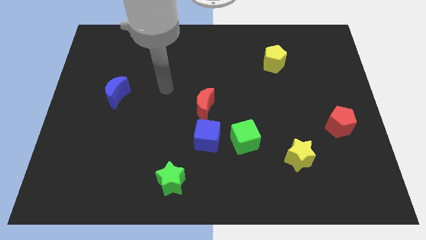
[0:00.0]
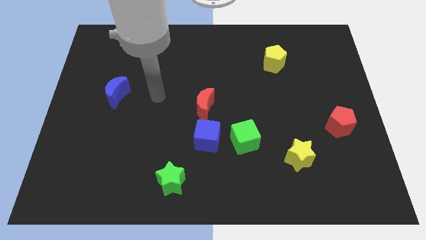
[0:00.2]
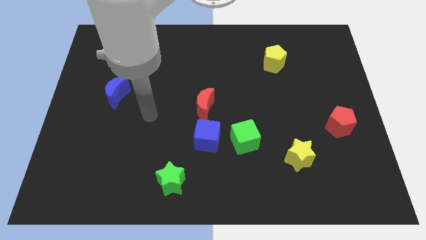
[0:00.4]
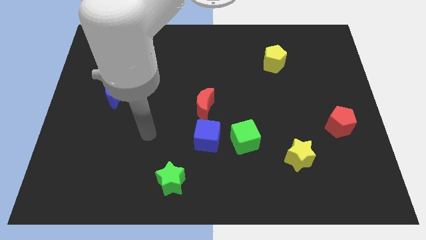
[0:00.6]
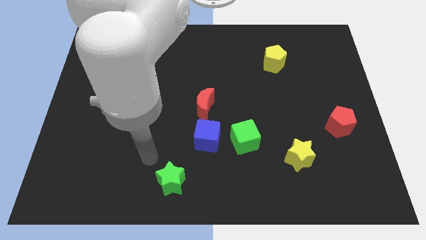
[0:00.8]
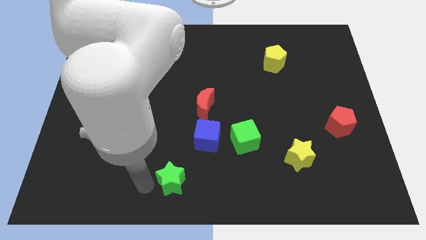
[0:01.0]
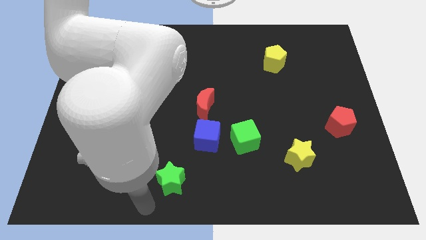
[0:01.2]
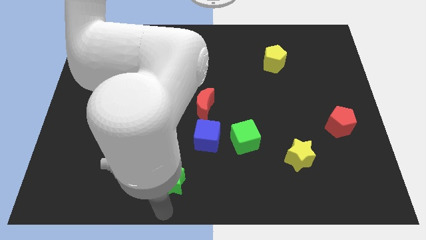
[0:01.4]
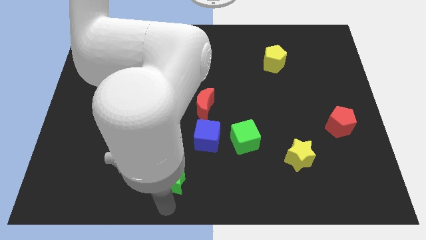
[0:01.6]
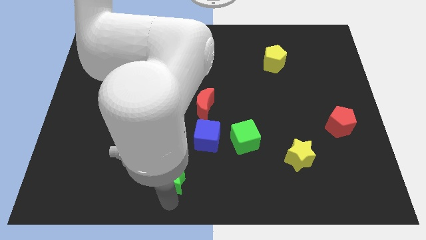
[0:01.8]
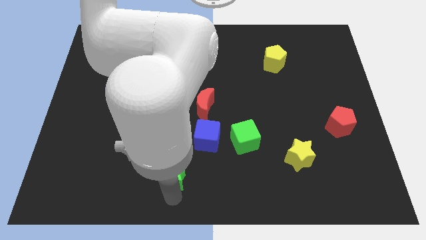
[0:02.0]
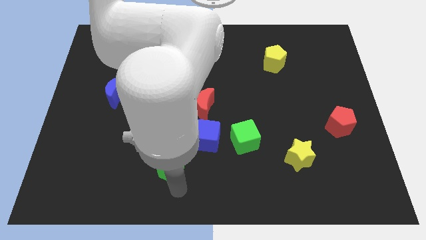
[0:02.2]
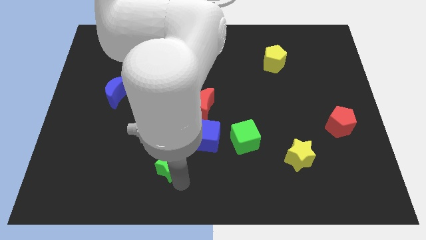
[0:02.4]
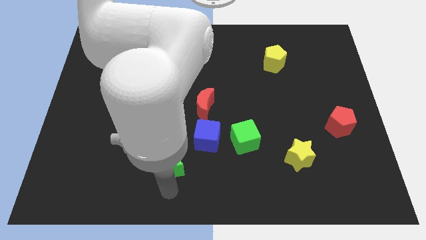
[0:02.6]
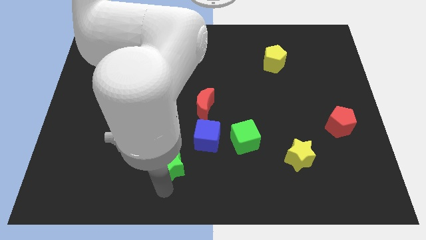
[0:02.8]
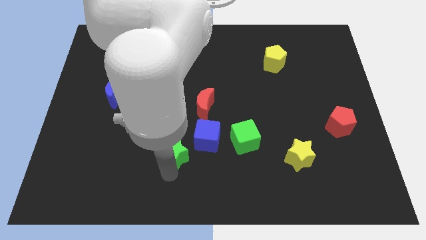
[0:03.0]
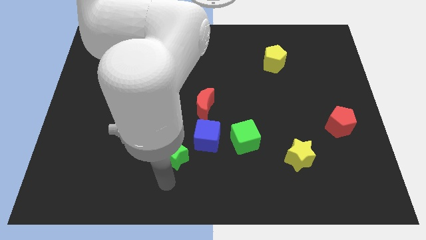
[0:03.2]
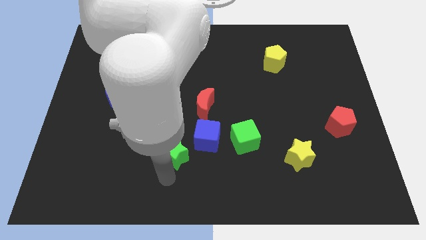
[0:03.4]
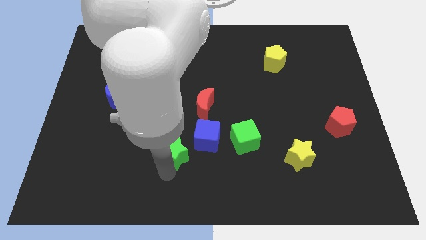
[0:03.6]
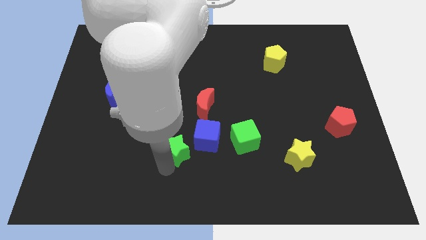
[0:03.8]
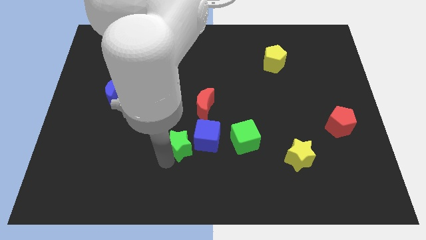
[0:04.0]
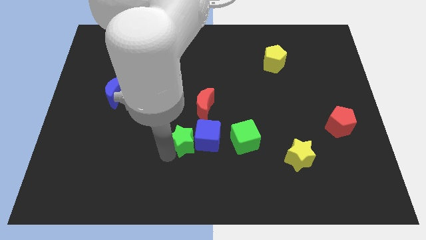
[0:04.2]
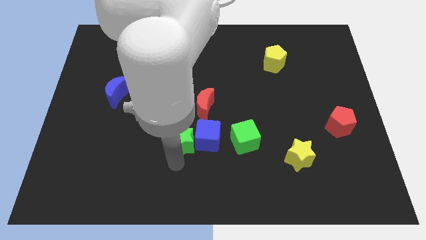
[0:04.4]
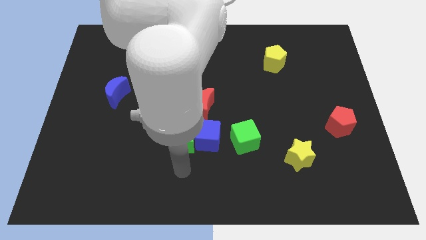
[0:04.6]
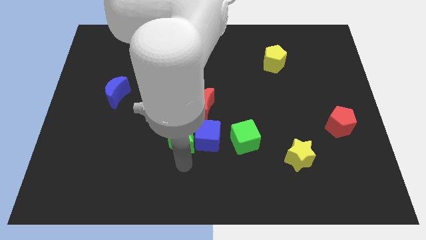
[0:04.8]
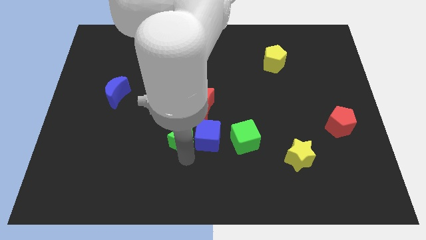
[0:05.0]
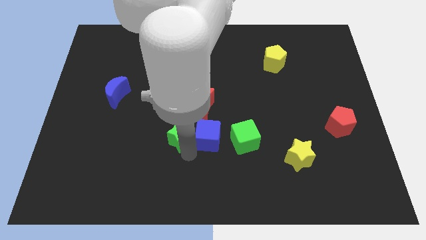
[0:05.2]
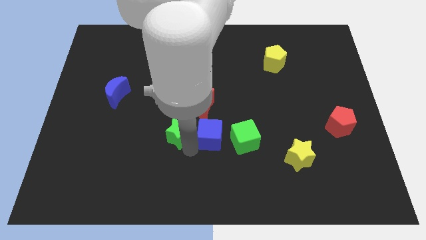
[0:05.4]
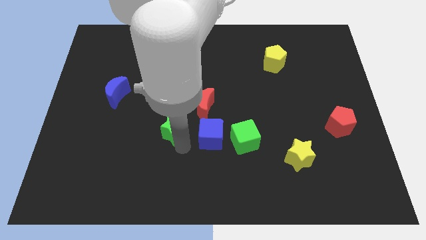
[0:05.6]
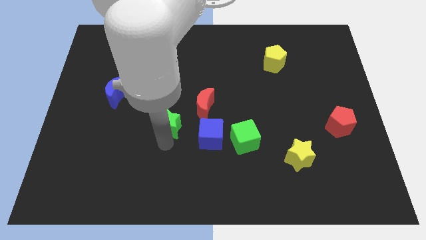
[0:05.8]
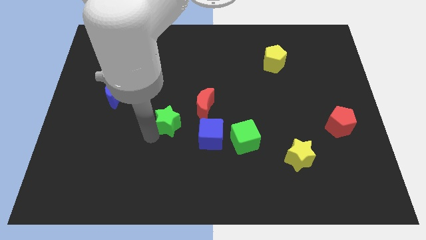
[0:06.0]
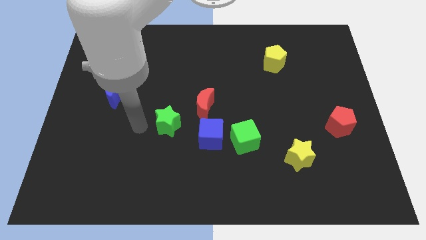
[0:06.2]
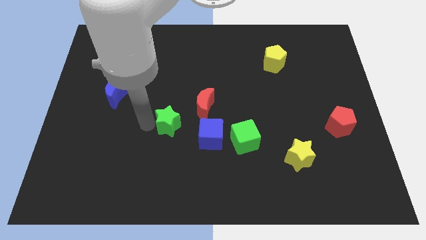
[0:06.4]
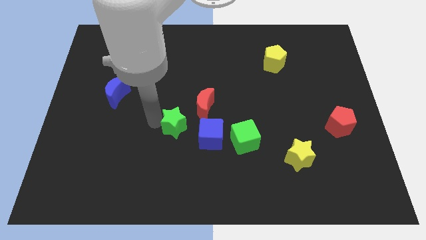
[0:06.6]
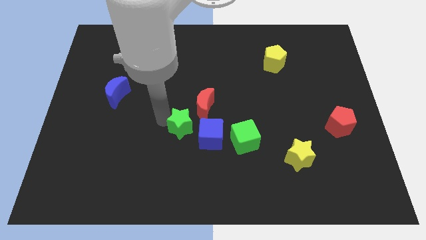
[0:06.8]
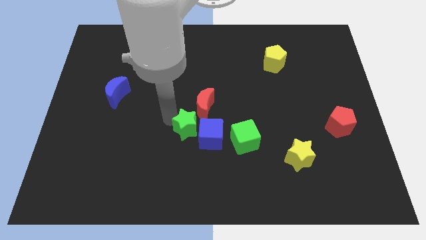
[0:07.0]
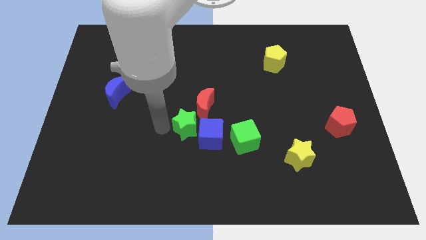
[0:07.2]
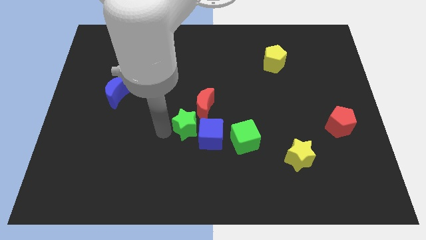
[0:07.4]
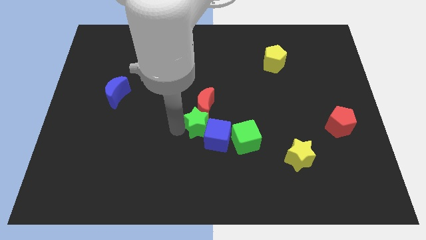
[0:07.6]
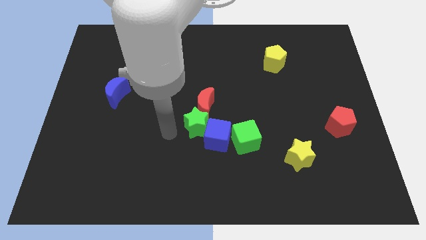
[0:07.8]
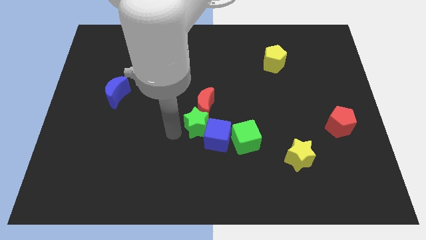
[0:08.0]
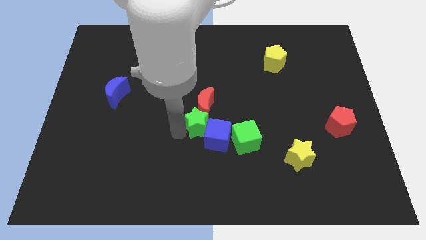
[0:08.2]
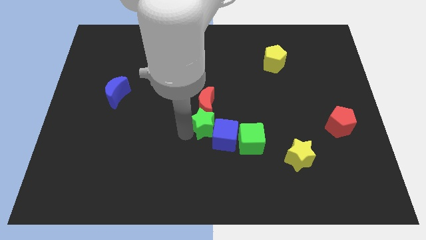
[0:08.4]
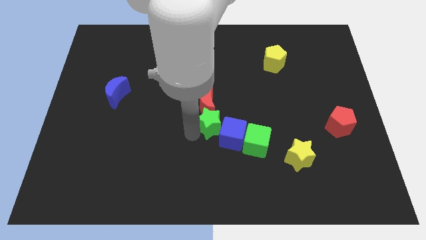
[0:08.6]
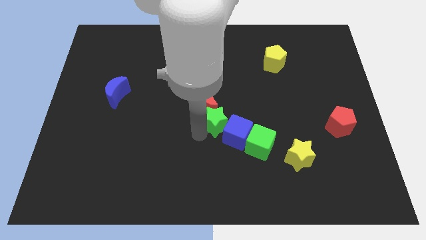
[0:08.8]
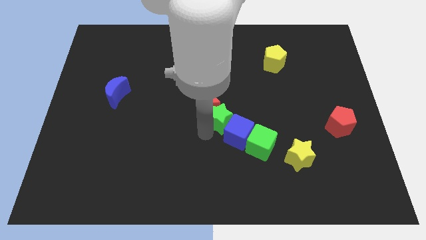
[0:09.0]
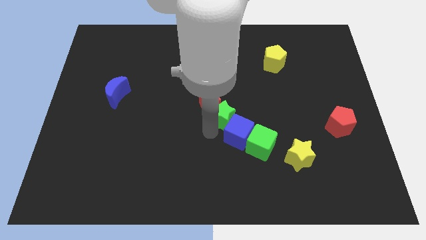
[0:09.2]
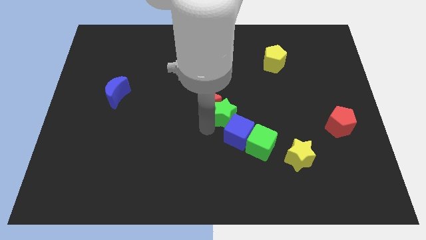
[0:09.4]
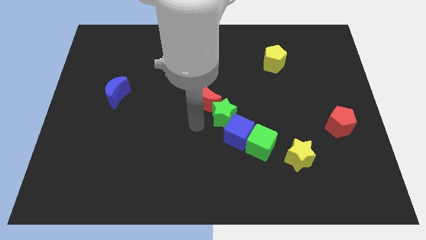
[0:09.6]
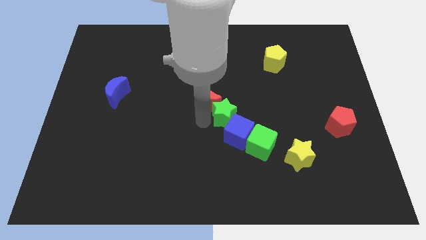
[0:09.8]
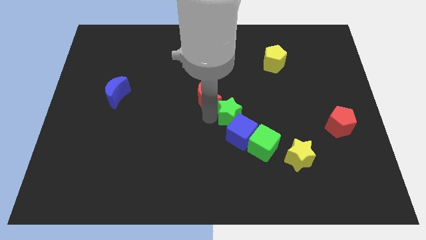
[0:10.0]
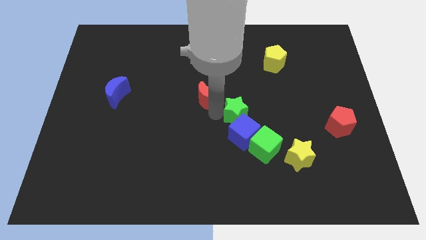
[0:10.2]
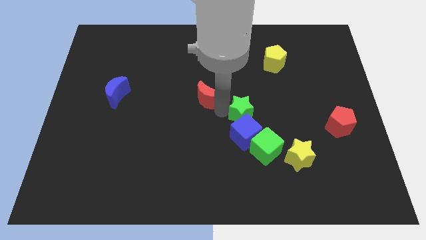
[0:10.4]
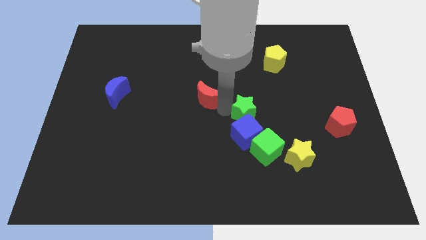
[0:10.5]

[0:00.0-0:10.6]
put the green star to the top side of the green cube

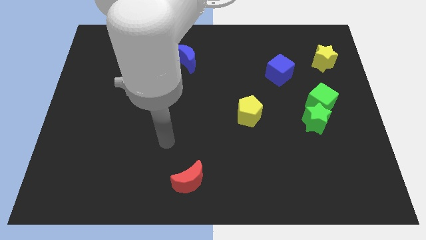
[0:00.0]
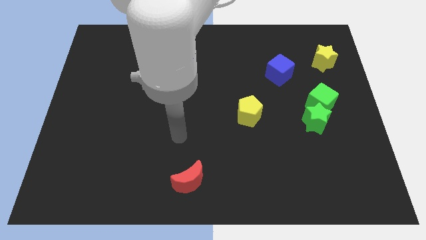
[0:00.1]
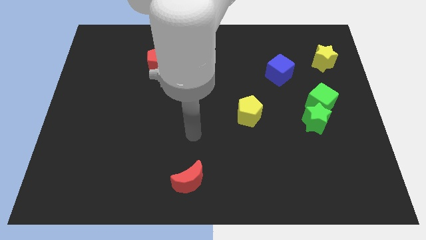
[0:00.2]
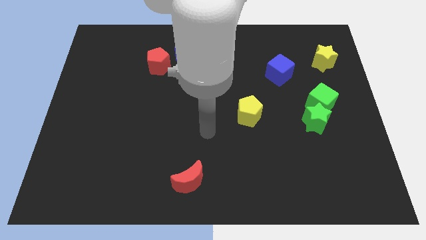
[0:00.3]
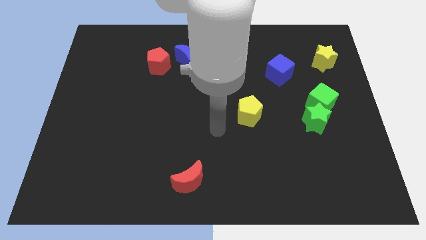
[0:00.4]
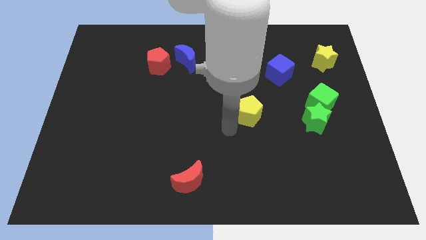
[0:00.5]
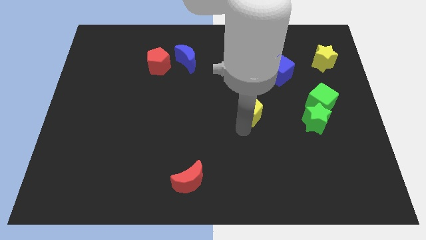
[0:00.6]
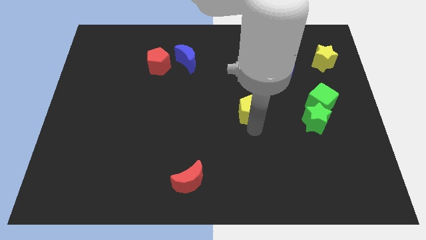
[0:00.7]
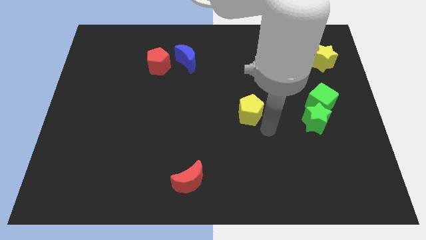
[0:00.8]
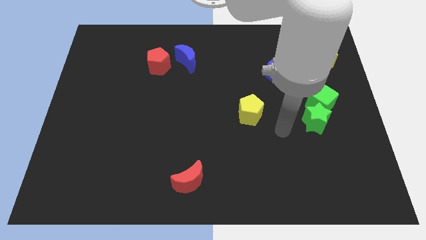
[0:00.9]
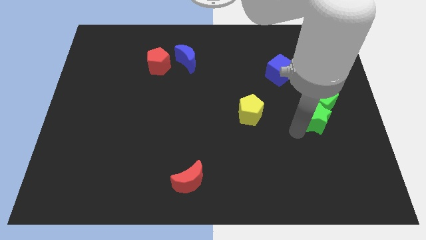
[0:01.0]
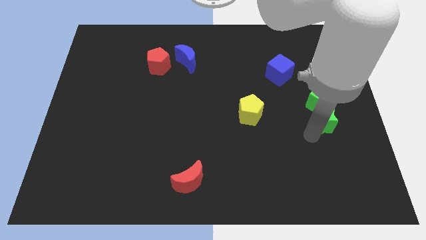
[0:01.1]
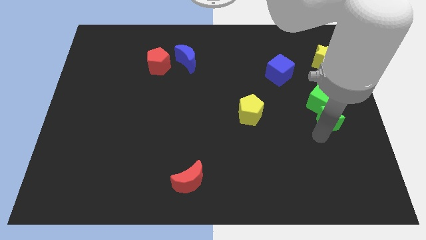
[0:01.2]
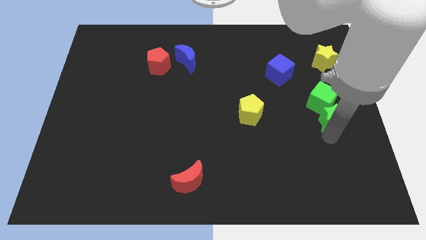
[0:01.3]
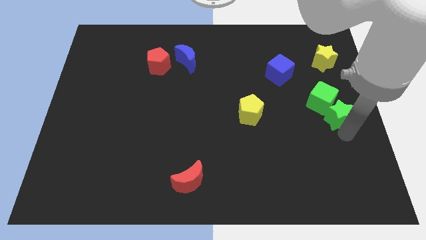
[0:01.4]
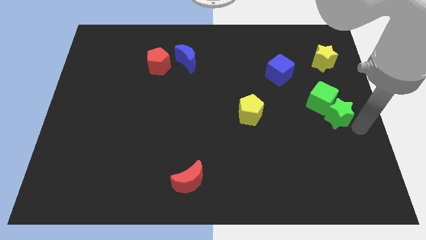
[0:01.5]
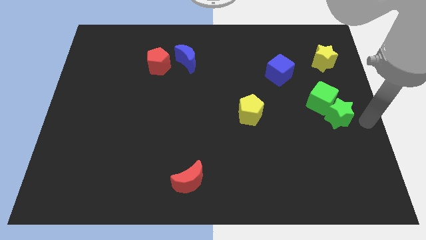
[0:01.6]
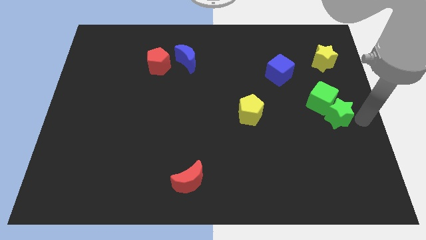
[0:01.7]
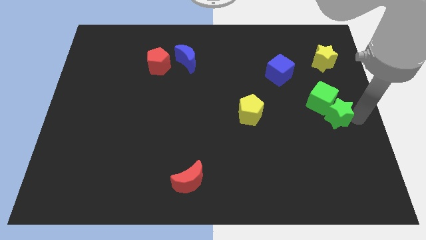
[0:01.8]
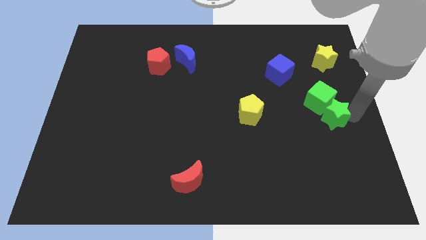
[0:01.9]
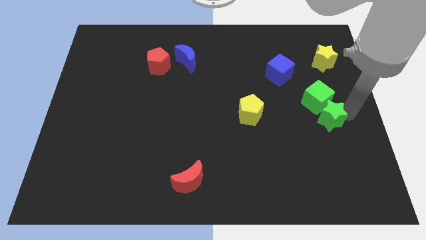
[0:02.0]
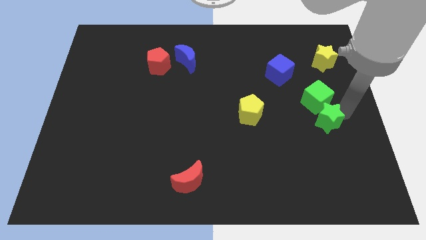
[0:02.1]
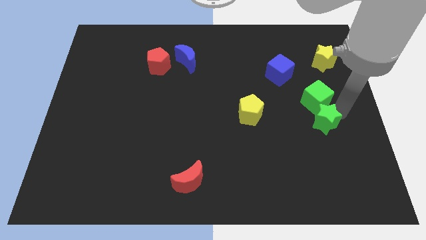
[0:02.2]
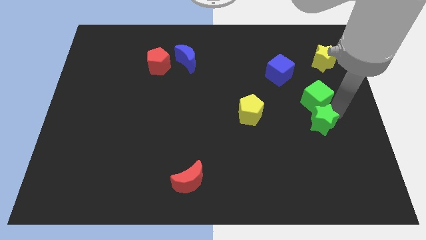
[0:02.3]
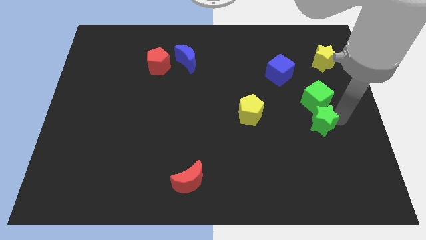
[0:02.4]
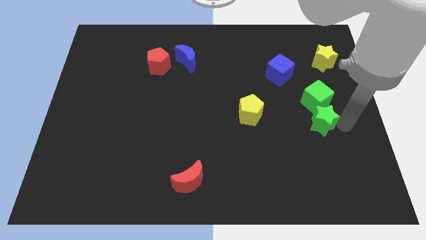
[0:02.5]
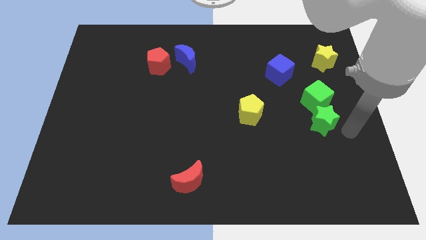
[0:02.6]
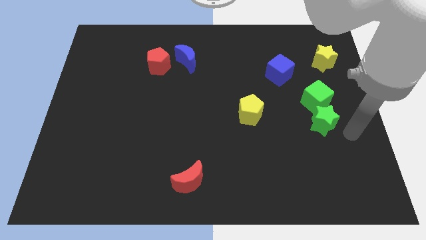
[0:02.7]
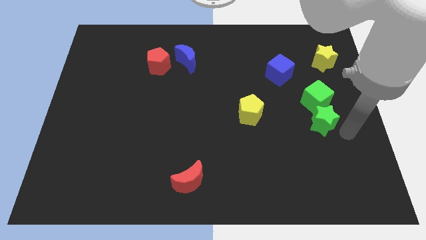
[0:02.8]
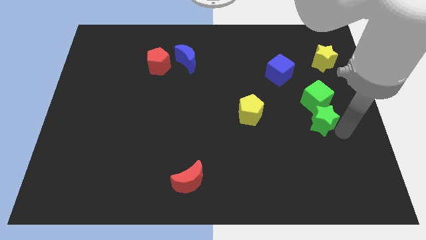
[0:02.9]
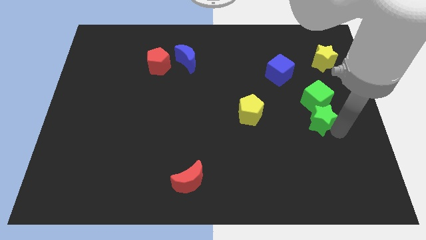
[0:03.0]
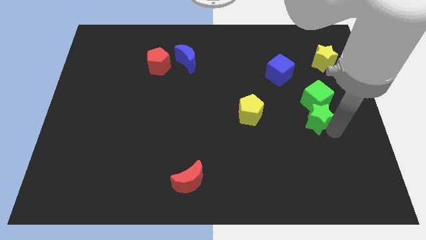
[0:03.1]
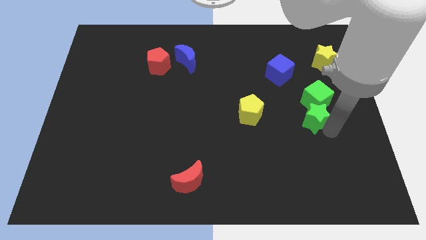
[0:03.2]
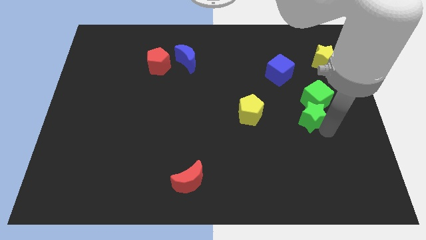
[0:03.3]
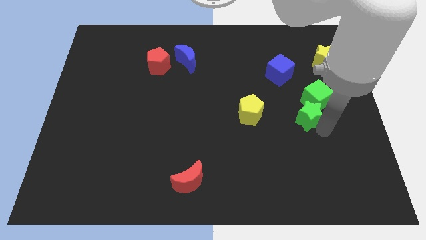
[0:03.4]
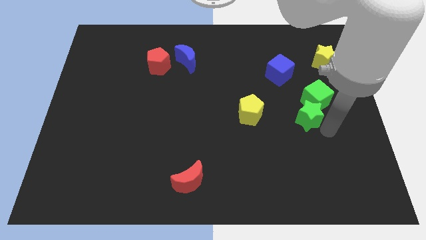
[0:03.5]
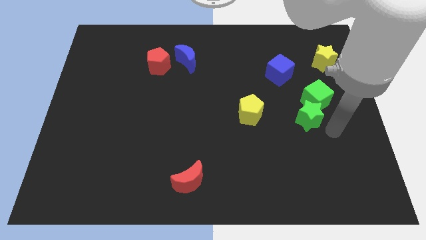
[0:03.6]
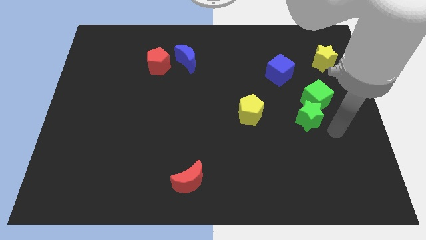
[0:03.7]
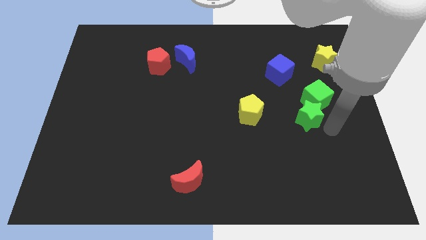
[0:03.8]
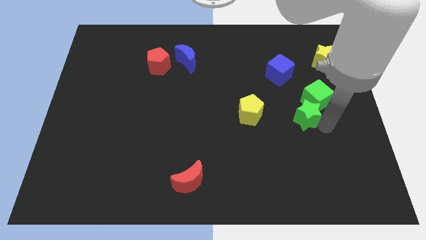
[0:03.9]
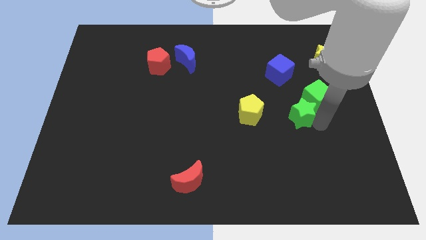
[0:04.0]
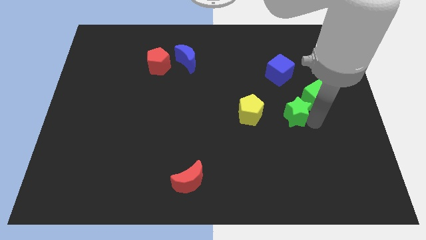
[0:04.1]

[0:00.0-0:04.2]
put the green star to the left of the green cube
